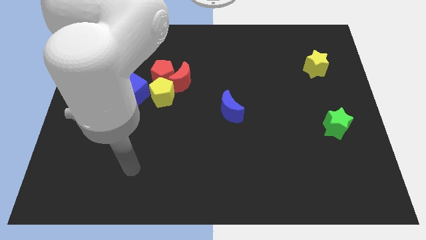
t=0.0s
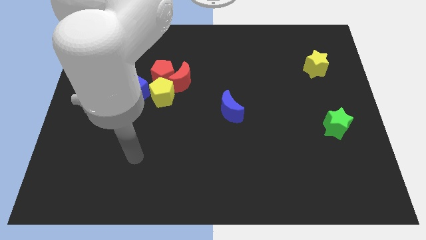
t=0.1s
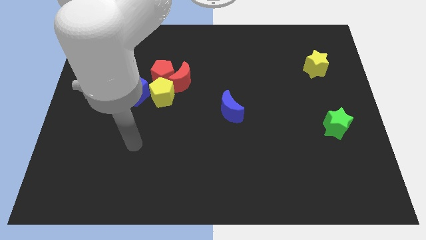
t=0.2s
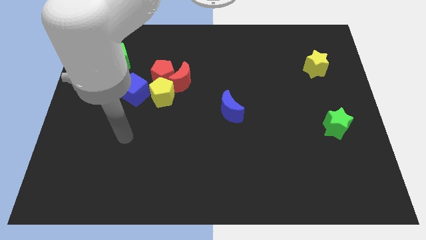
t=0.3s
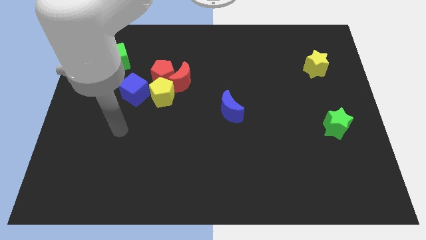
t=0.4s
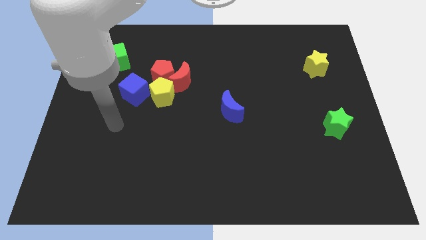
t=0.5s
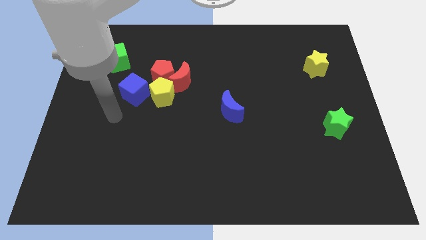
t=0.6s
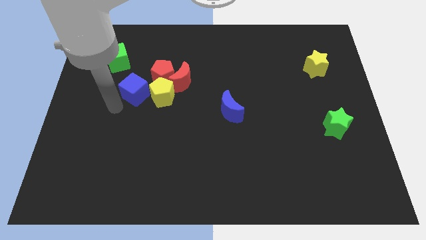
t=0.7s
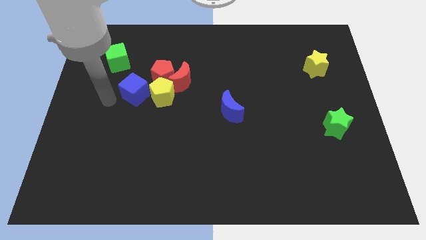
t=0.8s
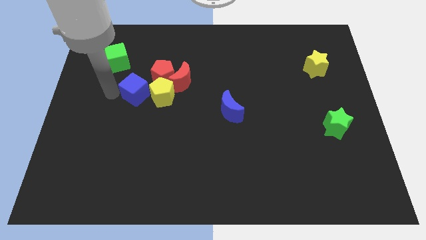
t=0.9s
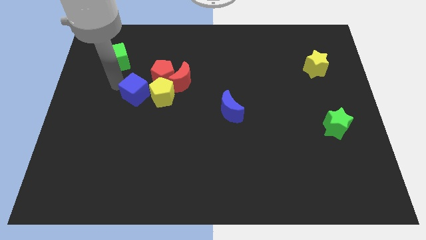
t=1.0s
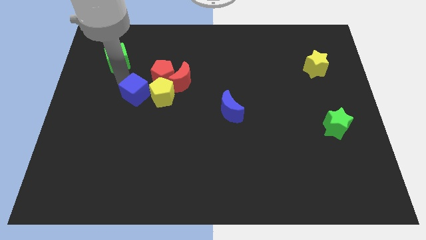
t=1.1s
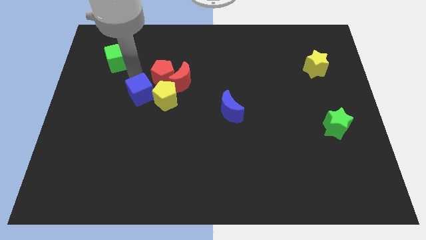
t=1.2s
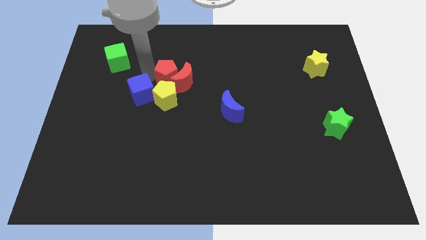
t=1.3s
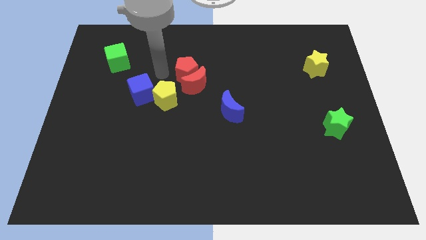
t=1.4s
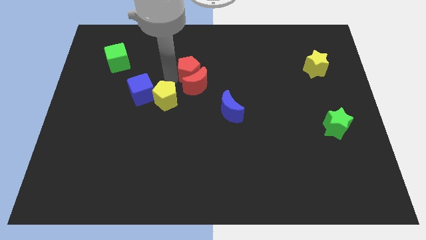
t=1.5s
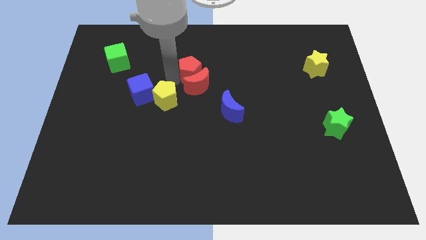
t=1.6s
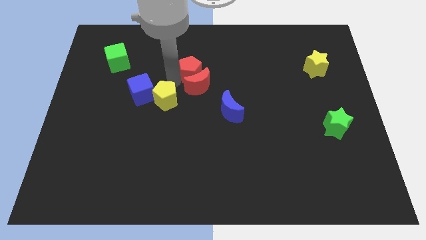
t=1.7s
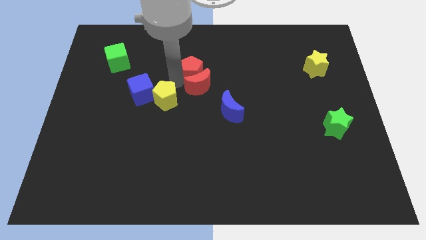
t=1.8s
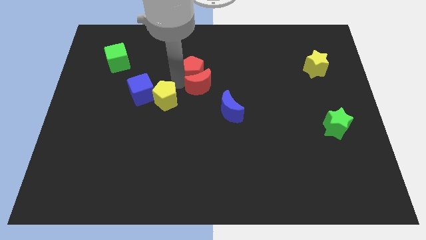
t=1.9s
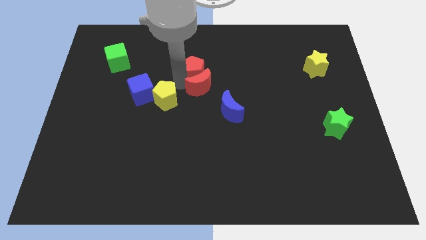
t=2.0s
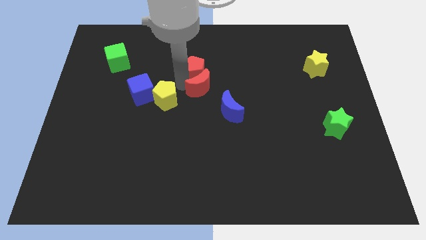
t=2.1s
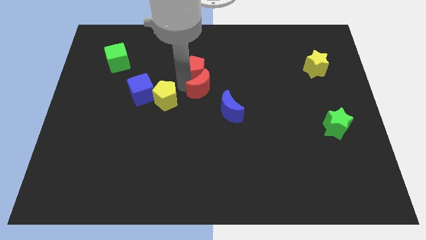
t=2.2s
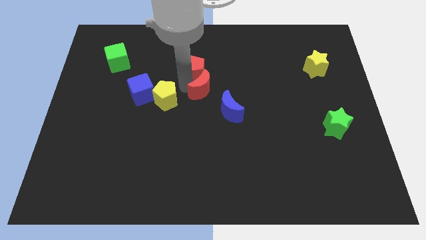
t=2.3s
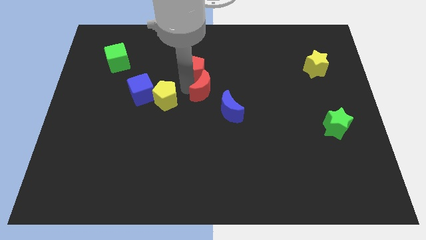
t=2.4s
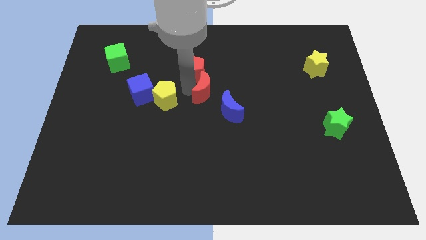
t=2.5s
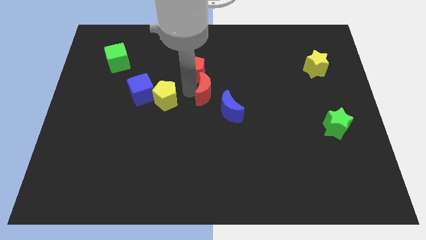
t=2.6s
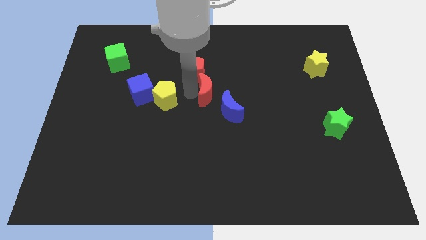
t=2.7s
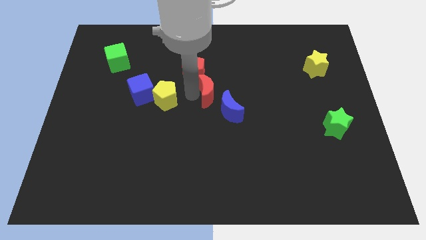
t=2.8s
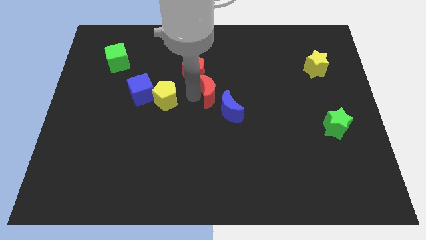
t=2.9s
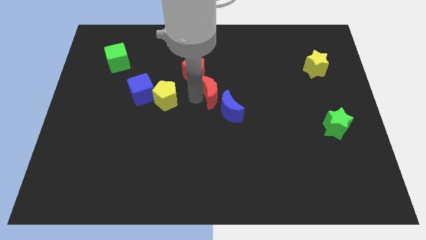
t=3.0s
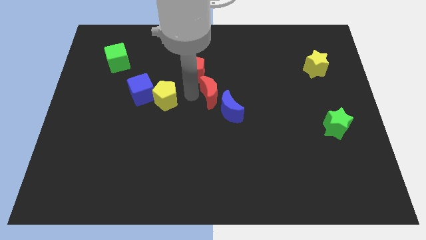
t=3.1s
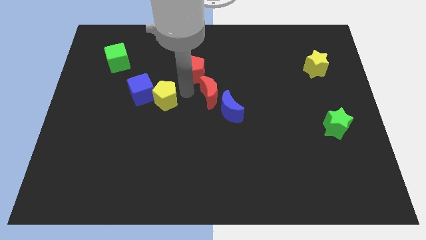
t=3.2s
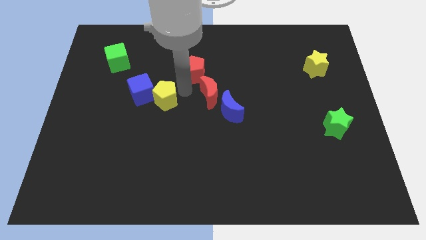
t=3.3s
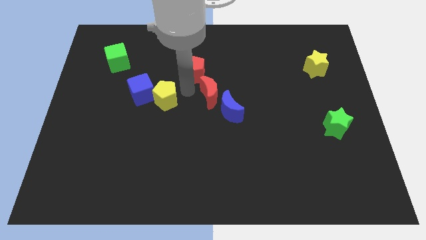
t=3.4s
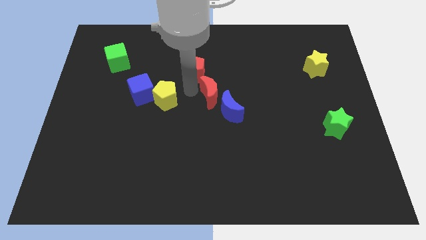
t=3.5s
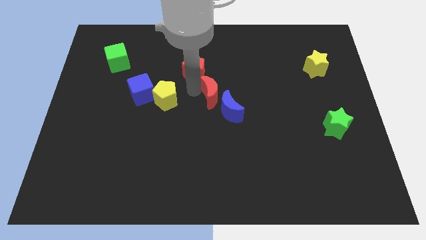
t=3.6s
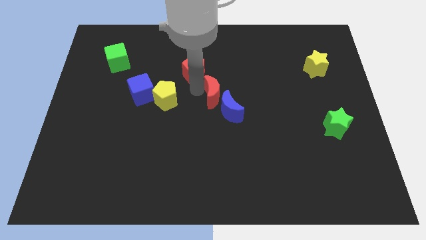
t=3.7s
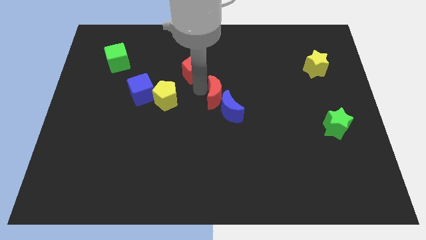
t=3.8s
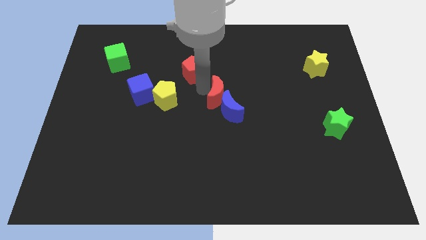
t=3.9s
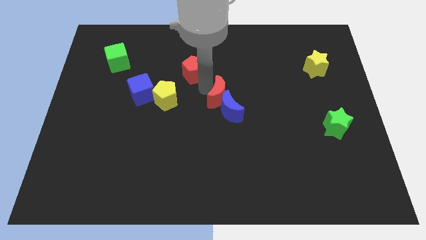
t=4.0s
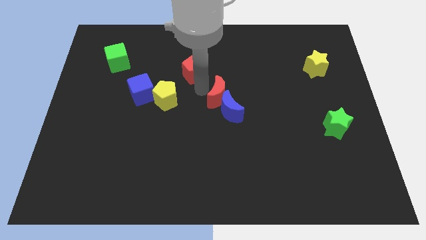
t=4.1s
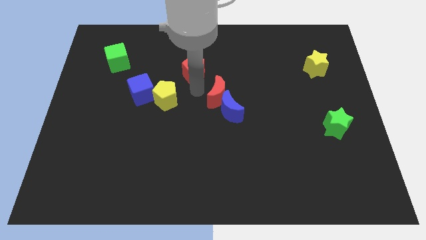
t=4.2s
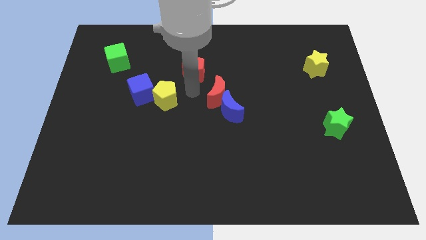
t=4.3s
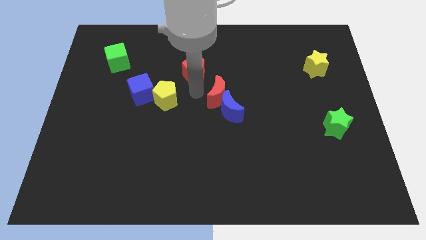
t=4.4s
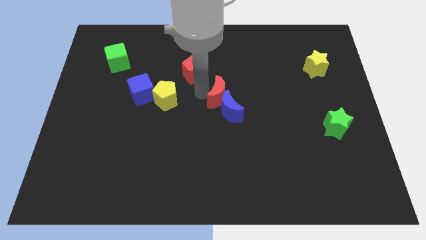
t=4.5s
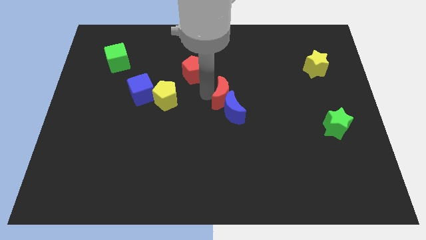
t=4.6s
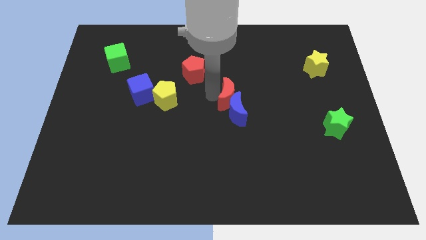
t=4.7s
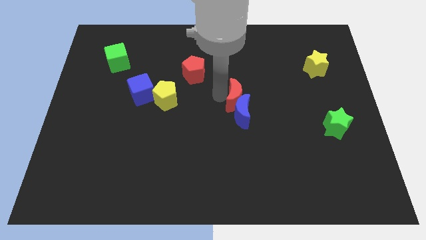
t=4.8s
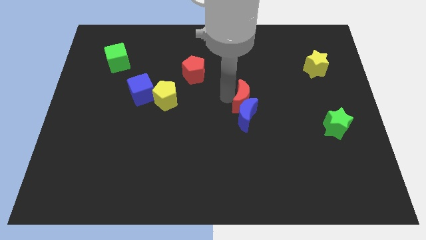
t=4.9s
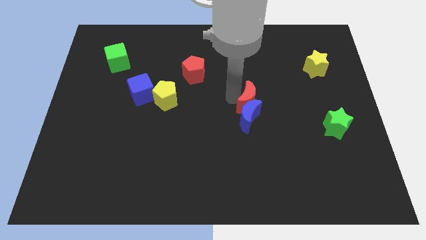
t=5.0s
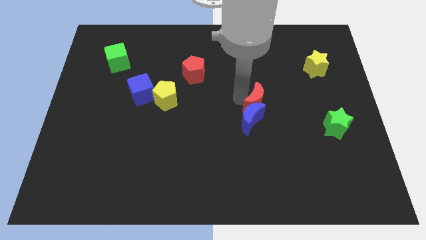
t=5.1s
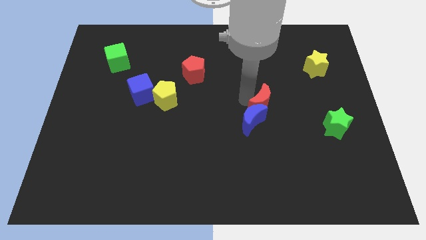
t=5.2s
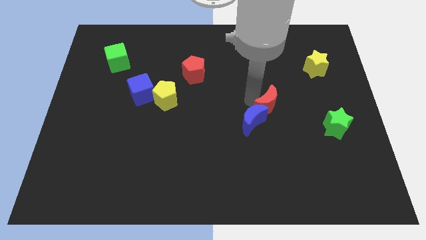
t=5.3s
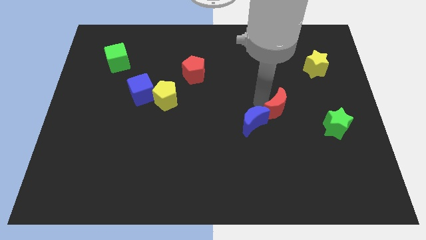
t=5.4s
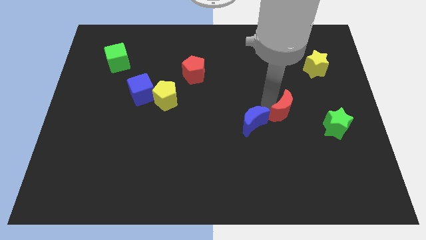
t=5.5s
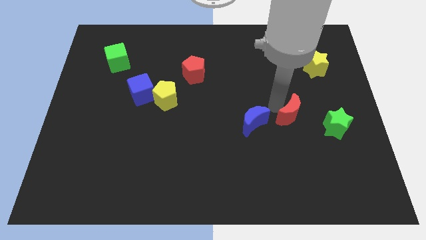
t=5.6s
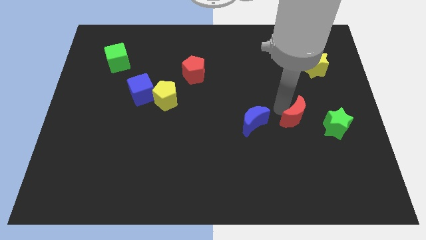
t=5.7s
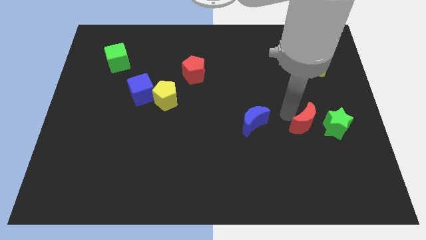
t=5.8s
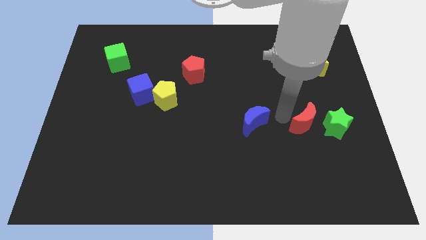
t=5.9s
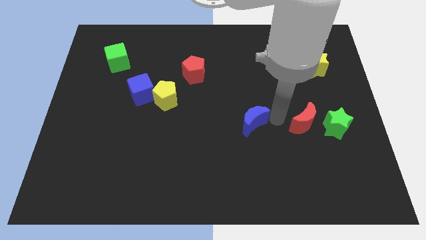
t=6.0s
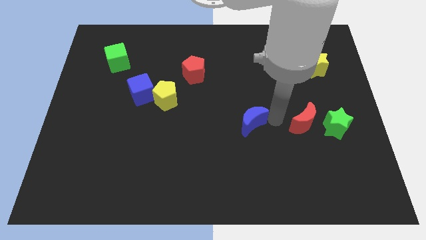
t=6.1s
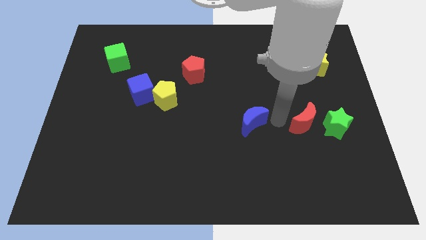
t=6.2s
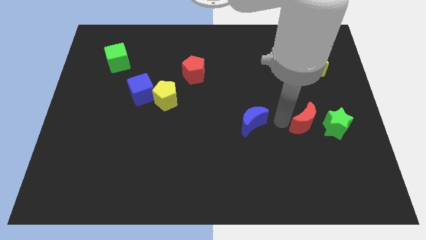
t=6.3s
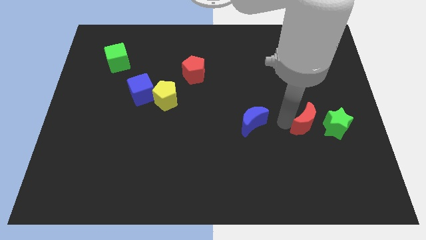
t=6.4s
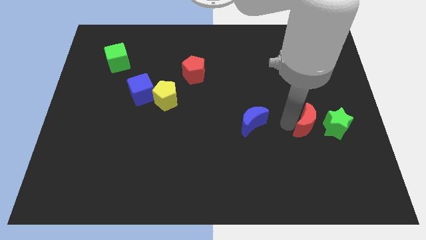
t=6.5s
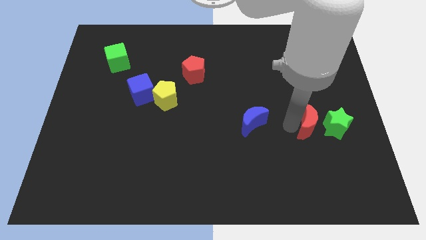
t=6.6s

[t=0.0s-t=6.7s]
move the red moon to the green star

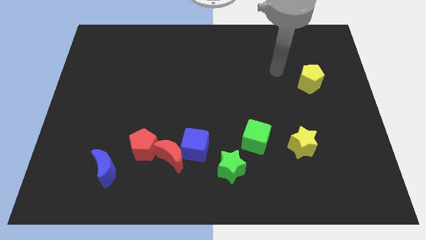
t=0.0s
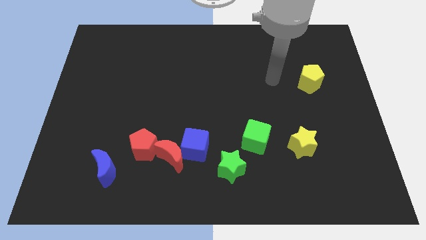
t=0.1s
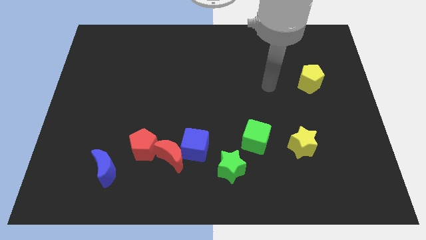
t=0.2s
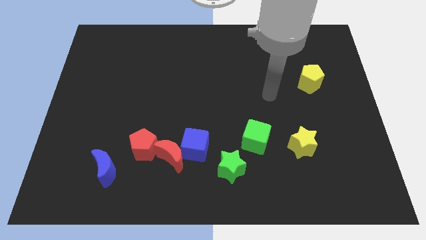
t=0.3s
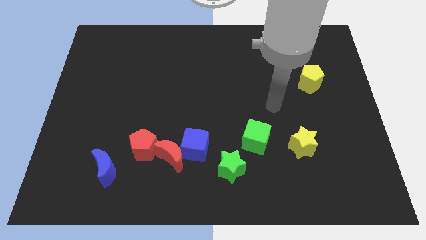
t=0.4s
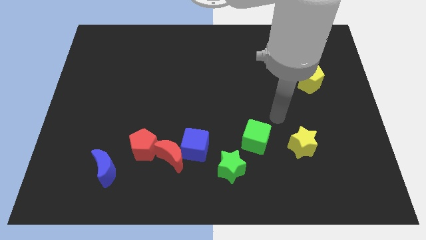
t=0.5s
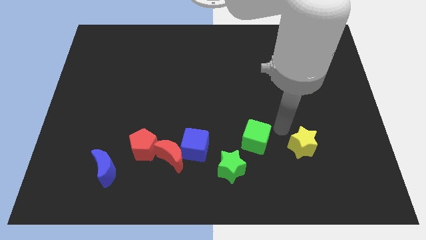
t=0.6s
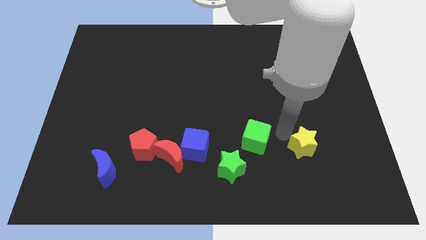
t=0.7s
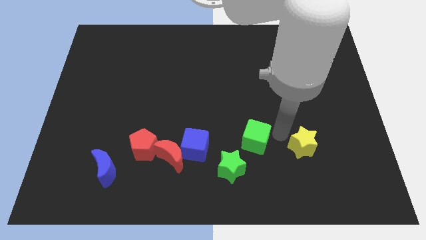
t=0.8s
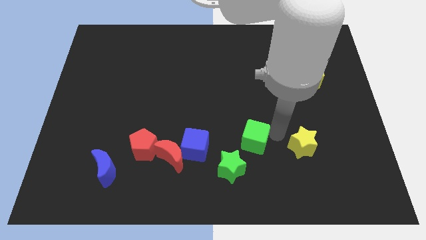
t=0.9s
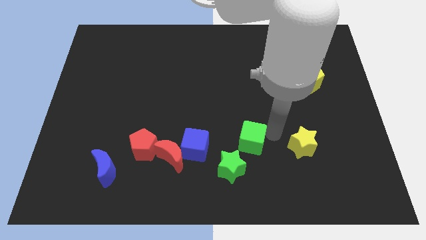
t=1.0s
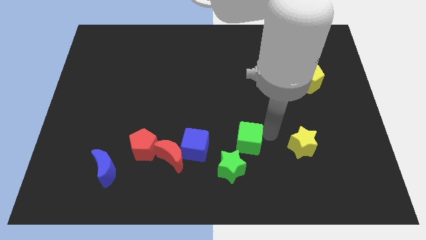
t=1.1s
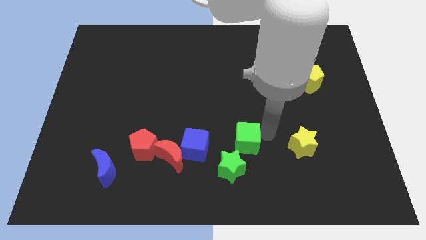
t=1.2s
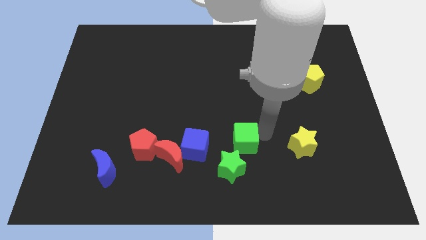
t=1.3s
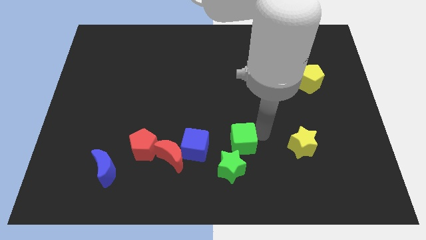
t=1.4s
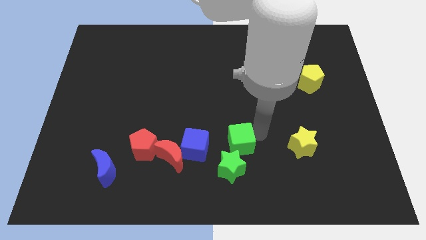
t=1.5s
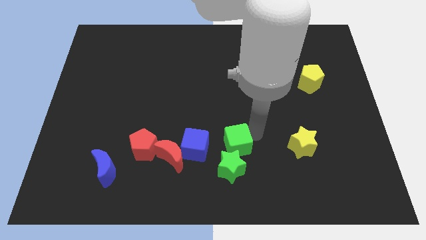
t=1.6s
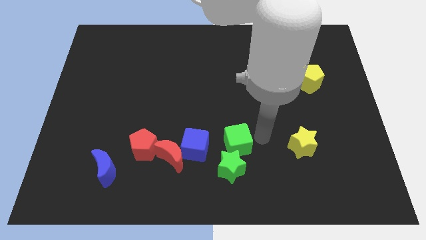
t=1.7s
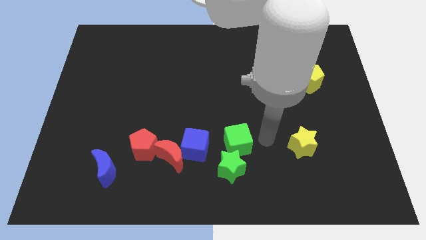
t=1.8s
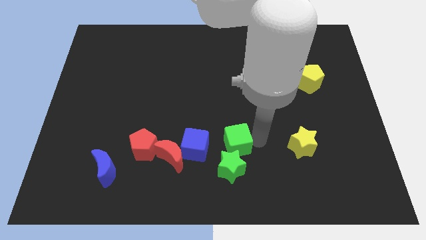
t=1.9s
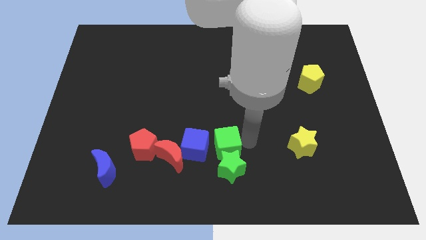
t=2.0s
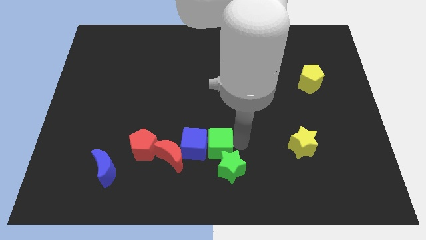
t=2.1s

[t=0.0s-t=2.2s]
slide the green cube next to the blue cube
